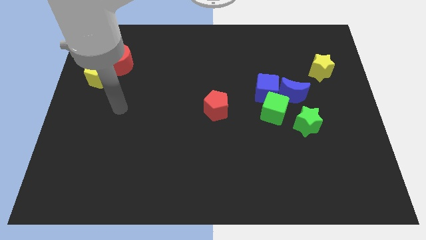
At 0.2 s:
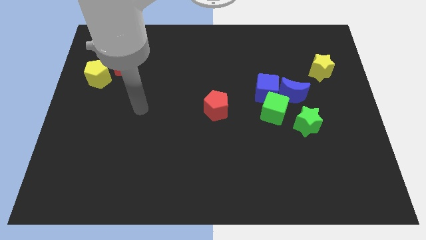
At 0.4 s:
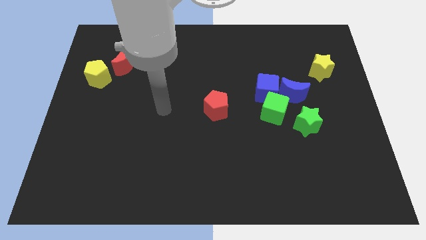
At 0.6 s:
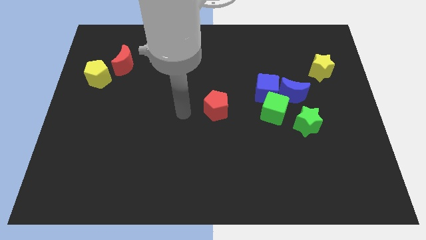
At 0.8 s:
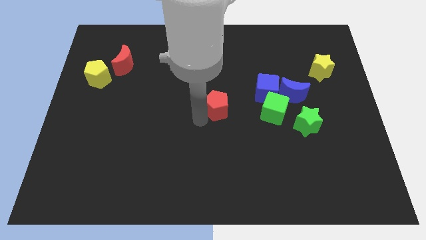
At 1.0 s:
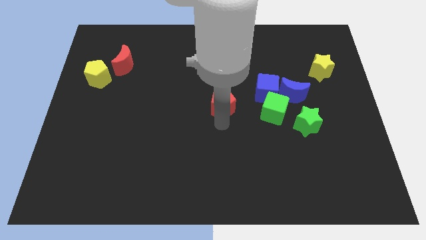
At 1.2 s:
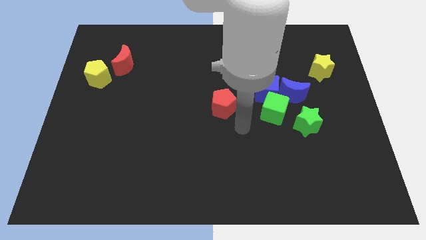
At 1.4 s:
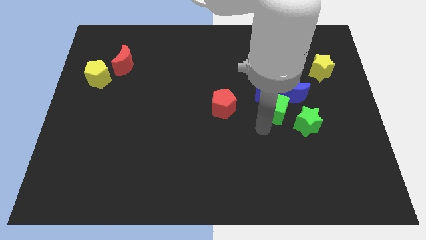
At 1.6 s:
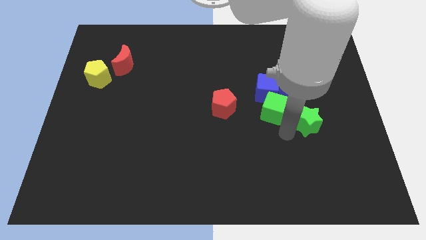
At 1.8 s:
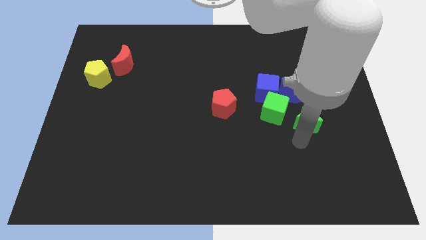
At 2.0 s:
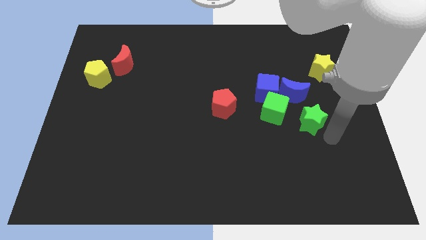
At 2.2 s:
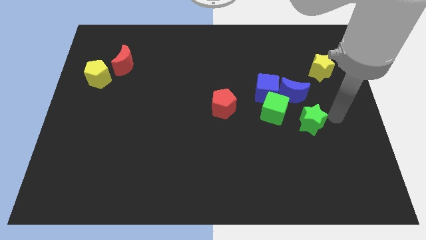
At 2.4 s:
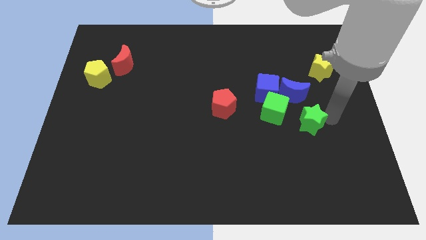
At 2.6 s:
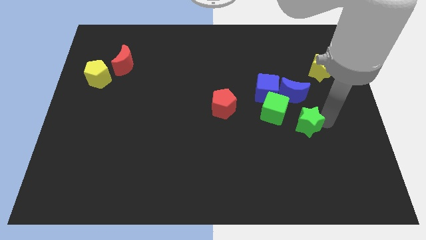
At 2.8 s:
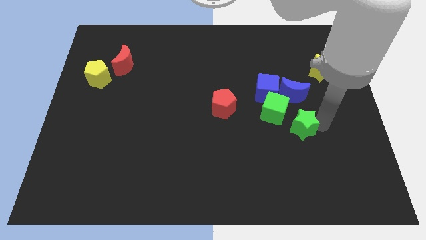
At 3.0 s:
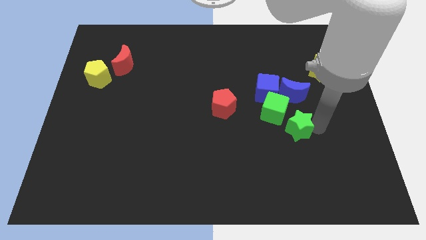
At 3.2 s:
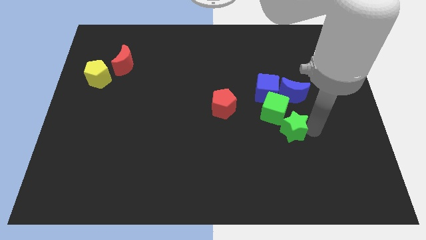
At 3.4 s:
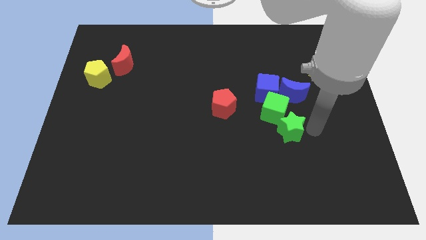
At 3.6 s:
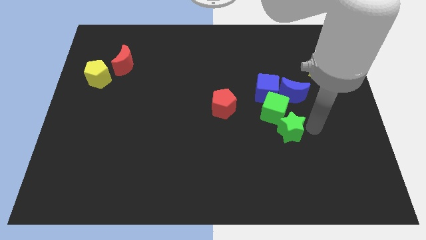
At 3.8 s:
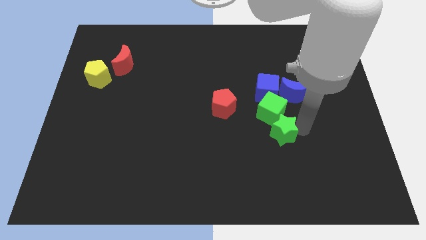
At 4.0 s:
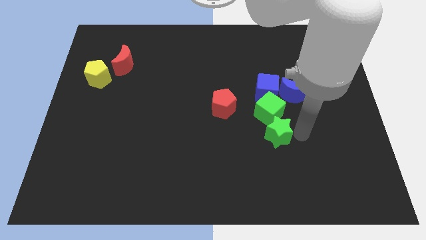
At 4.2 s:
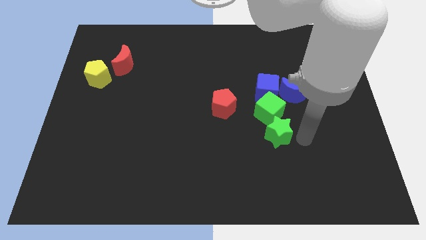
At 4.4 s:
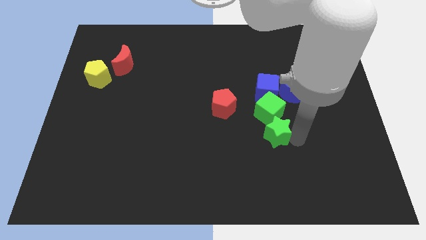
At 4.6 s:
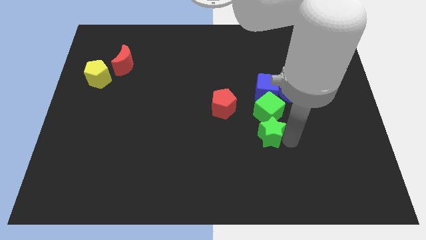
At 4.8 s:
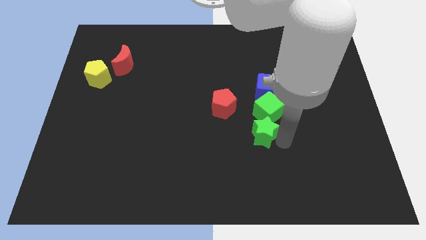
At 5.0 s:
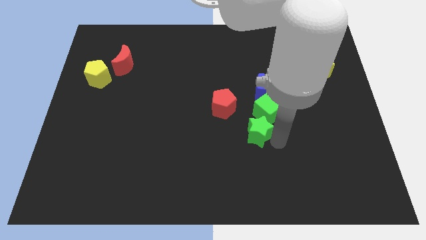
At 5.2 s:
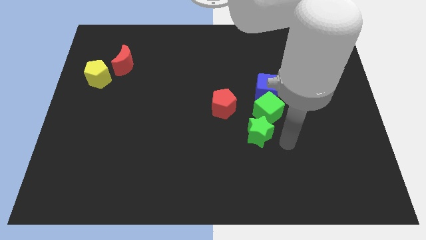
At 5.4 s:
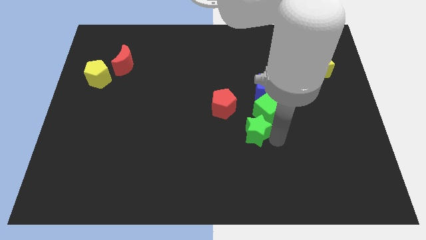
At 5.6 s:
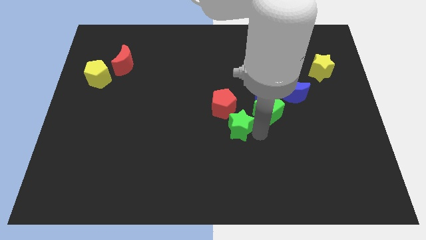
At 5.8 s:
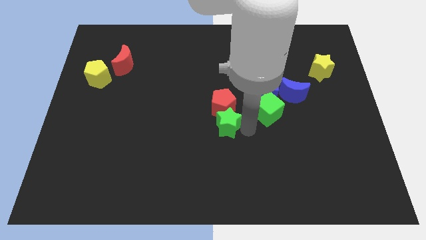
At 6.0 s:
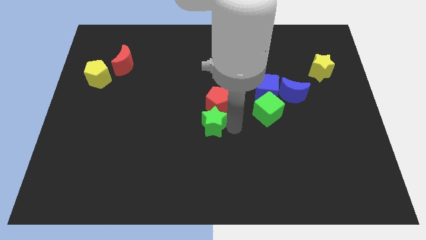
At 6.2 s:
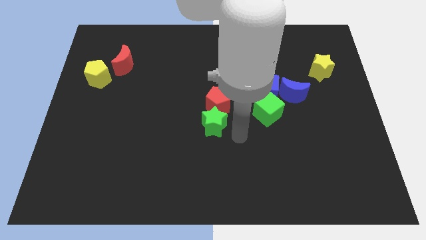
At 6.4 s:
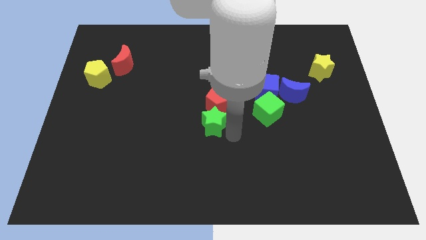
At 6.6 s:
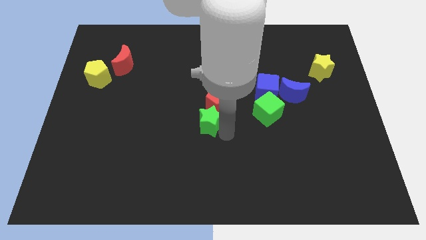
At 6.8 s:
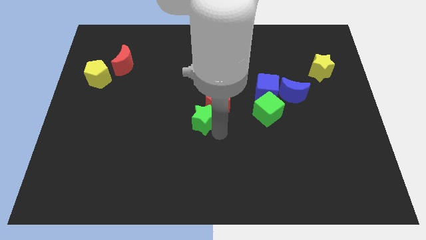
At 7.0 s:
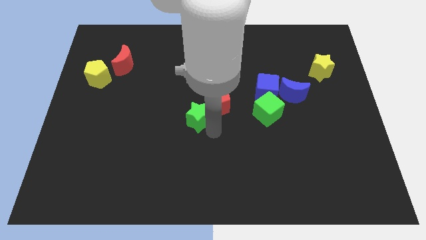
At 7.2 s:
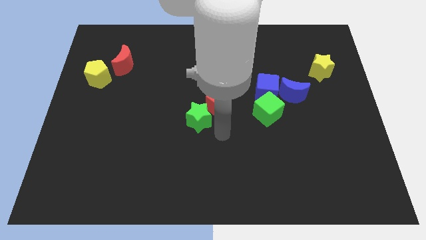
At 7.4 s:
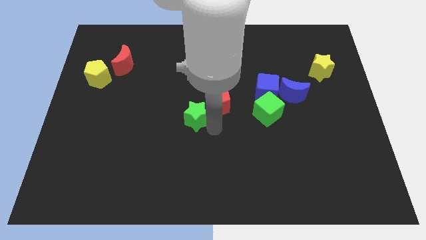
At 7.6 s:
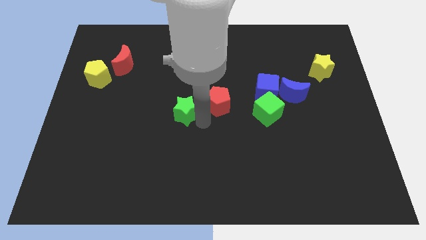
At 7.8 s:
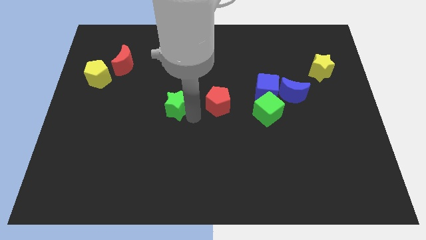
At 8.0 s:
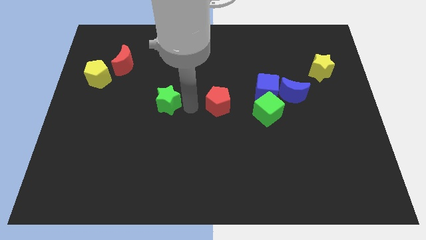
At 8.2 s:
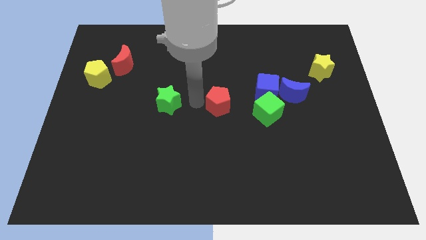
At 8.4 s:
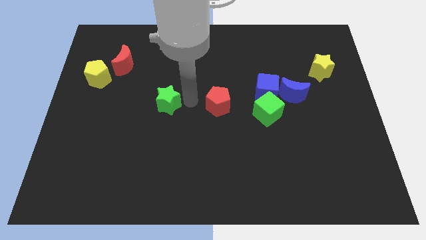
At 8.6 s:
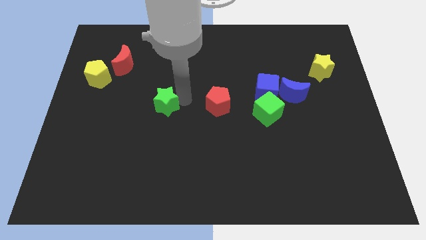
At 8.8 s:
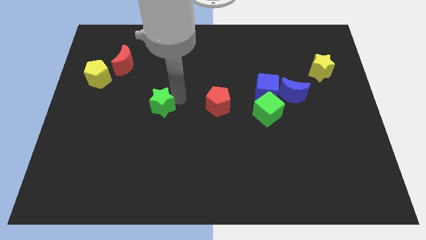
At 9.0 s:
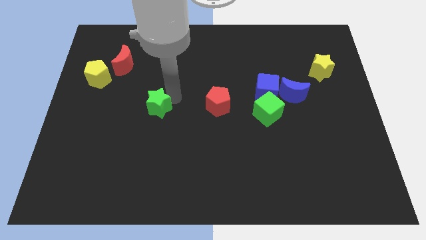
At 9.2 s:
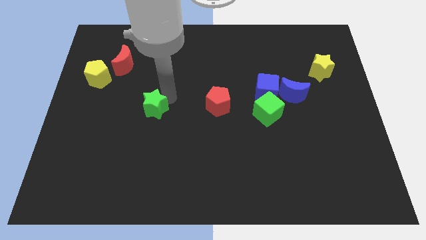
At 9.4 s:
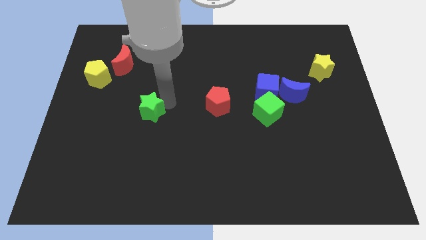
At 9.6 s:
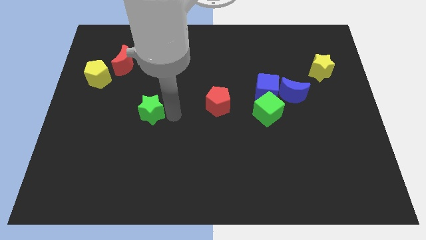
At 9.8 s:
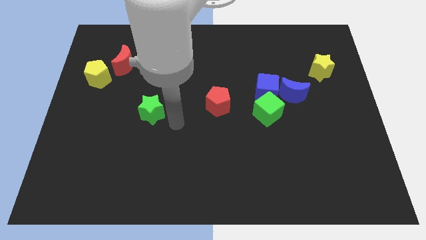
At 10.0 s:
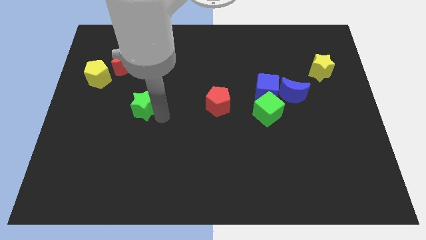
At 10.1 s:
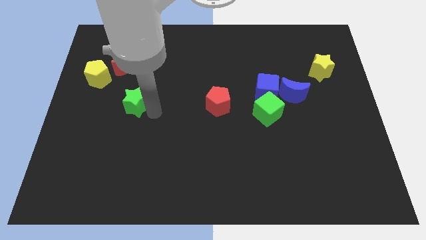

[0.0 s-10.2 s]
push the green star to the bottom of the red moon

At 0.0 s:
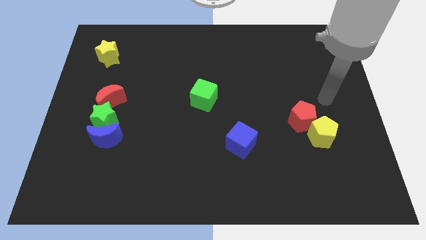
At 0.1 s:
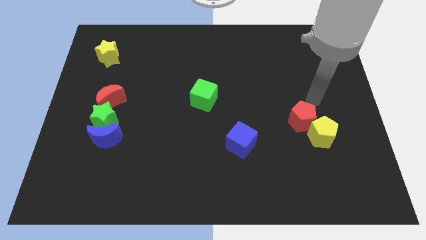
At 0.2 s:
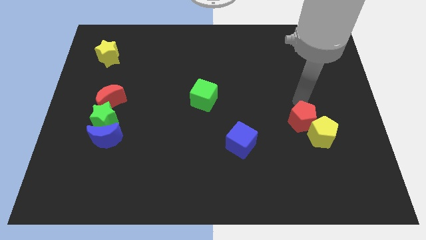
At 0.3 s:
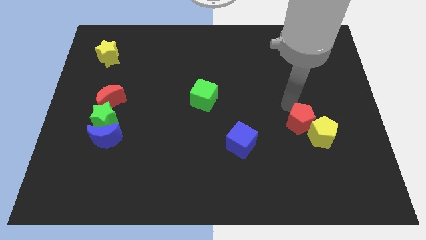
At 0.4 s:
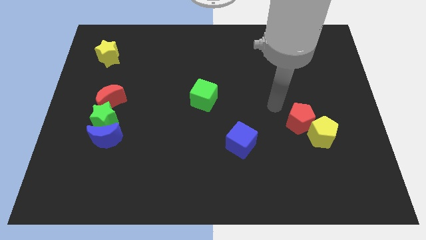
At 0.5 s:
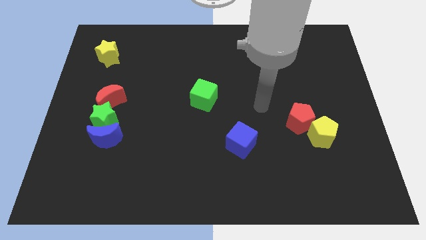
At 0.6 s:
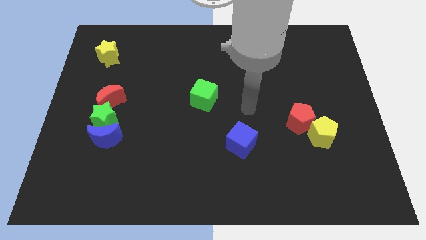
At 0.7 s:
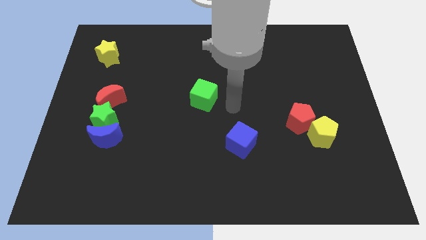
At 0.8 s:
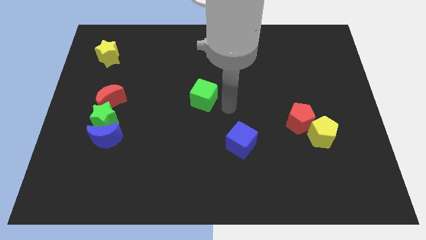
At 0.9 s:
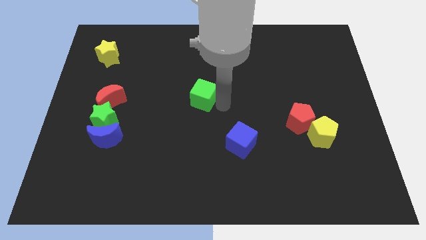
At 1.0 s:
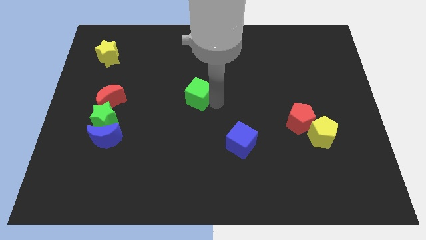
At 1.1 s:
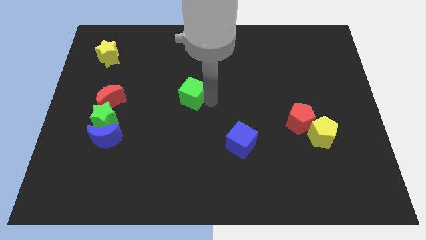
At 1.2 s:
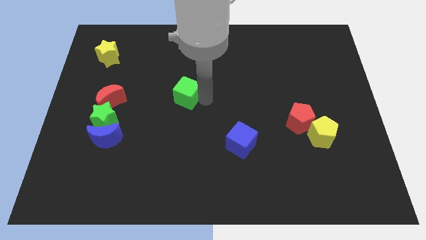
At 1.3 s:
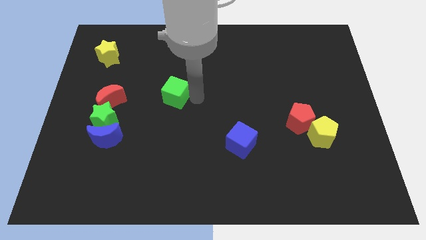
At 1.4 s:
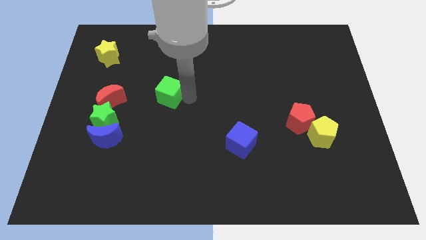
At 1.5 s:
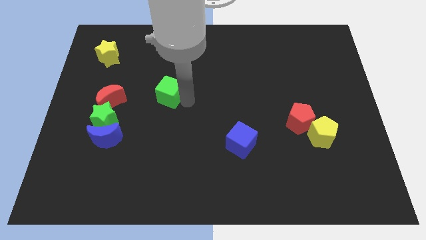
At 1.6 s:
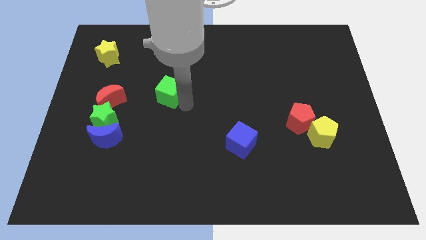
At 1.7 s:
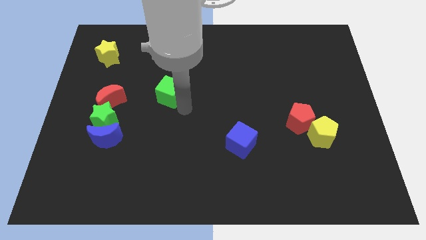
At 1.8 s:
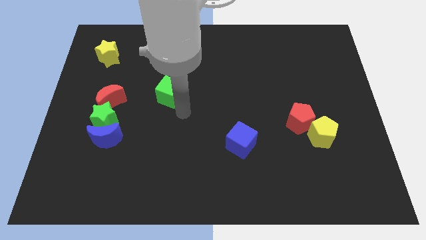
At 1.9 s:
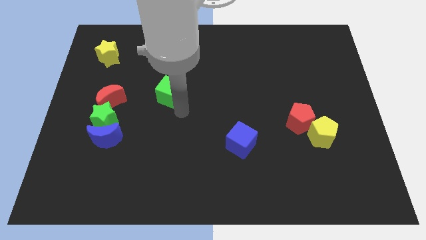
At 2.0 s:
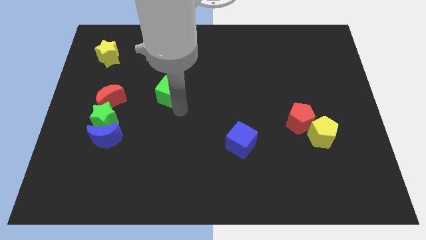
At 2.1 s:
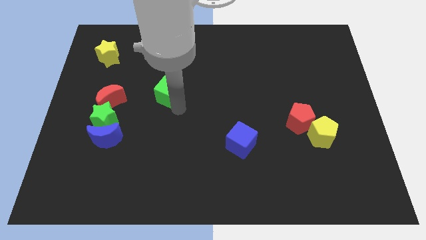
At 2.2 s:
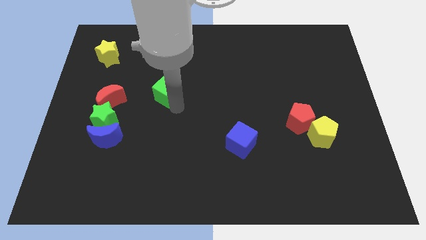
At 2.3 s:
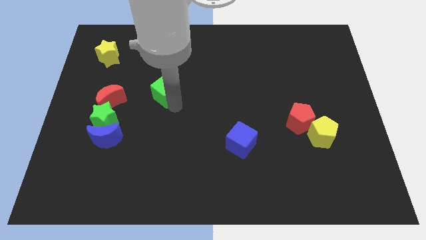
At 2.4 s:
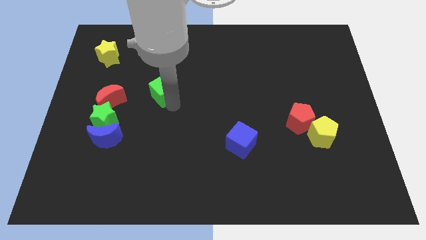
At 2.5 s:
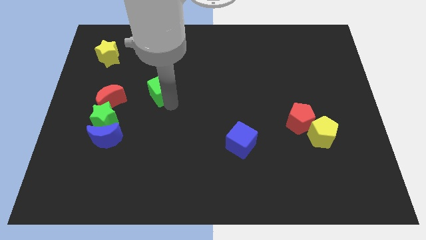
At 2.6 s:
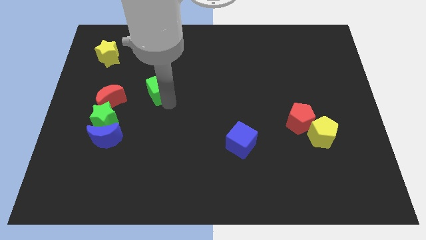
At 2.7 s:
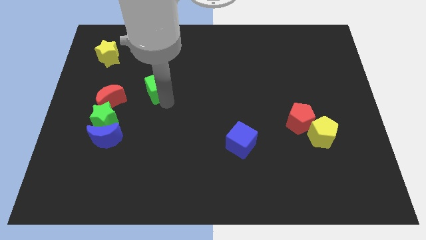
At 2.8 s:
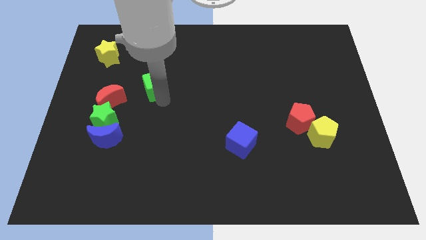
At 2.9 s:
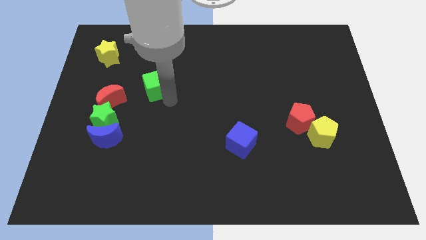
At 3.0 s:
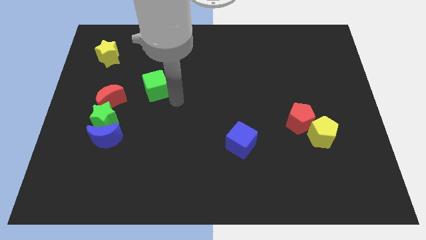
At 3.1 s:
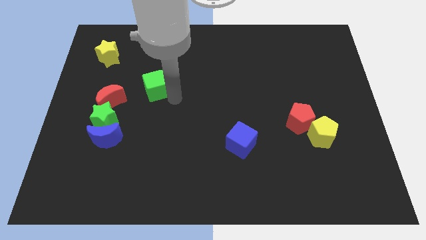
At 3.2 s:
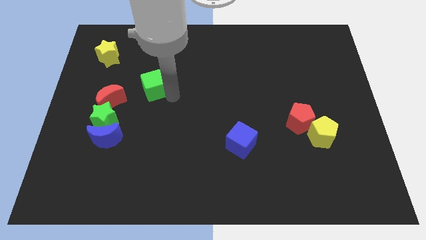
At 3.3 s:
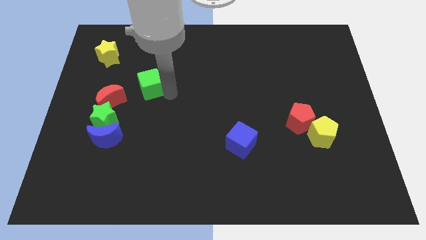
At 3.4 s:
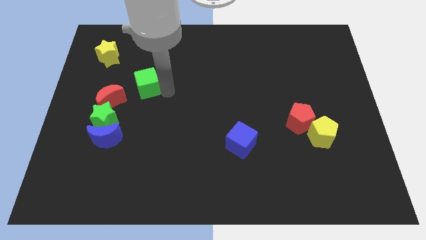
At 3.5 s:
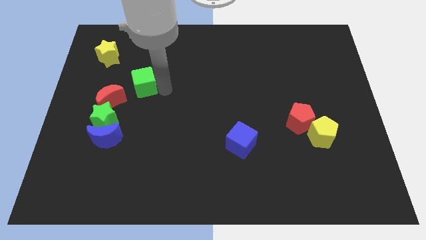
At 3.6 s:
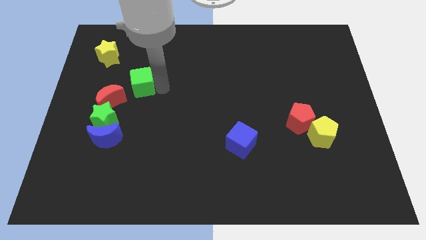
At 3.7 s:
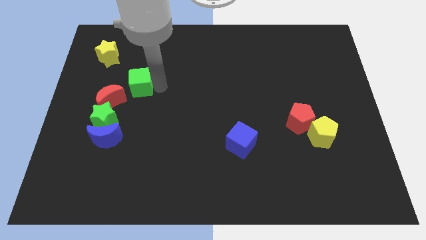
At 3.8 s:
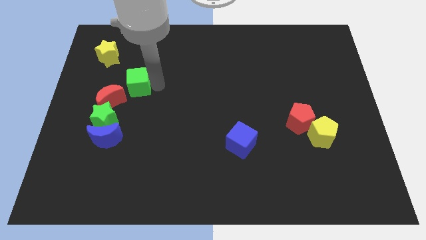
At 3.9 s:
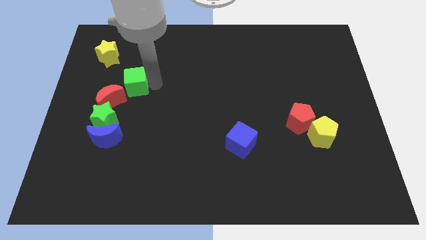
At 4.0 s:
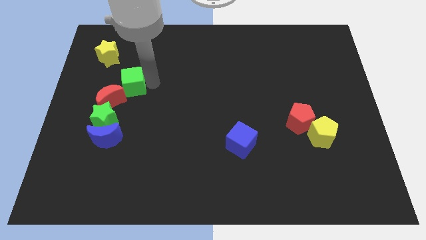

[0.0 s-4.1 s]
push the green cube diagonally down and to the right of the yellow star
